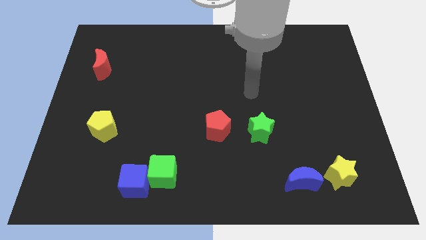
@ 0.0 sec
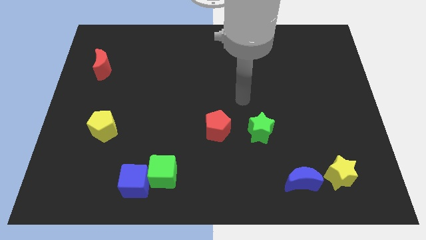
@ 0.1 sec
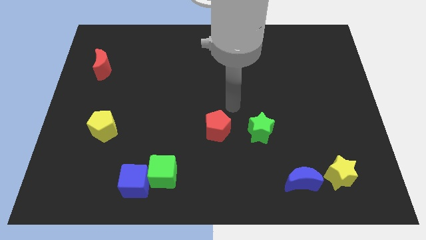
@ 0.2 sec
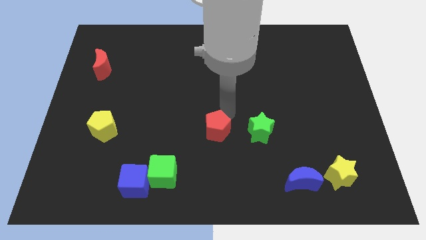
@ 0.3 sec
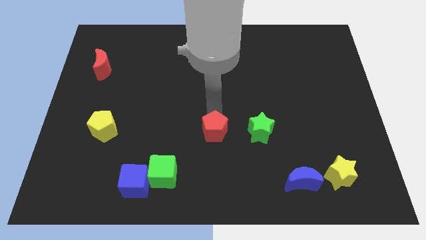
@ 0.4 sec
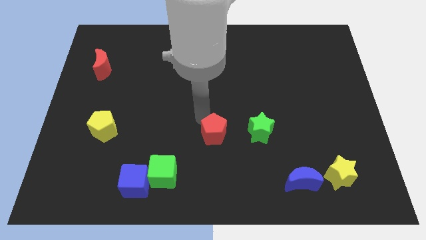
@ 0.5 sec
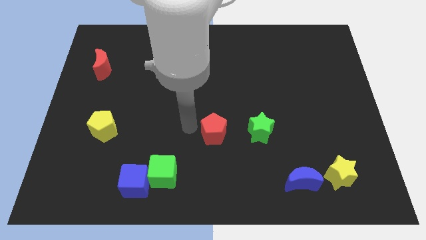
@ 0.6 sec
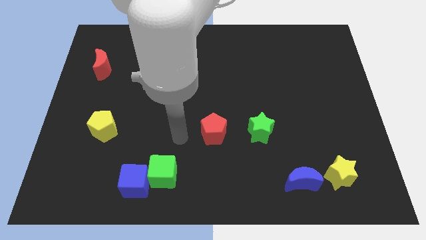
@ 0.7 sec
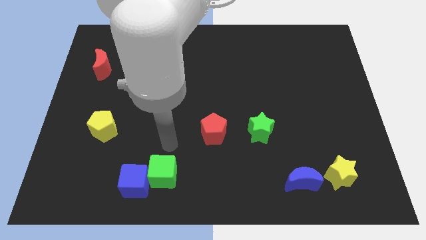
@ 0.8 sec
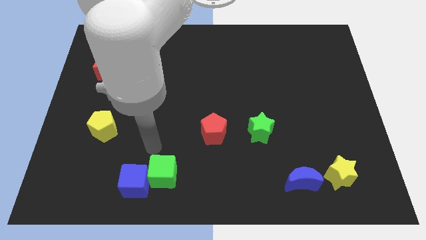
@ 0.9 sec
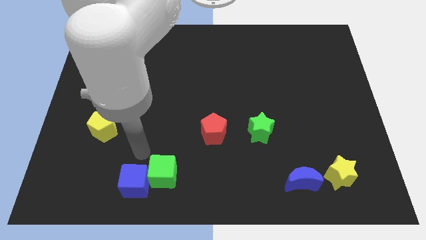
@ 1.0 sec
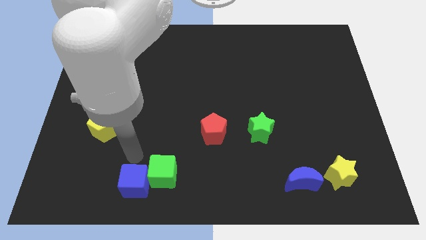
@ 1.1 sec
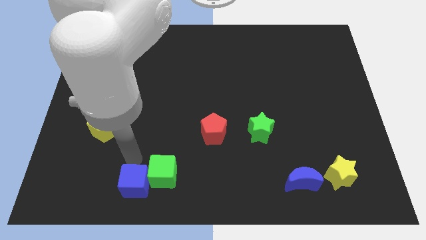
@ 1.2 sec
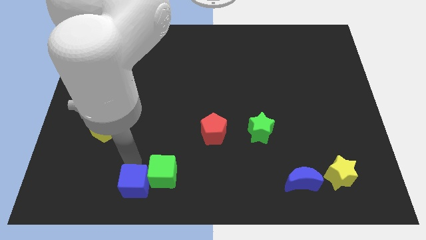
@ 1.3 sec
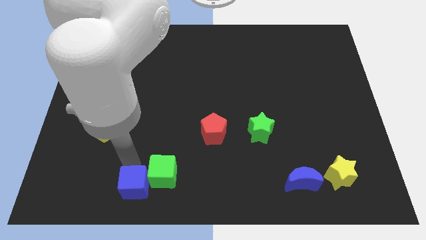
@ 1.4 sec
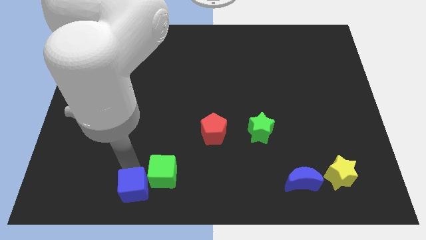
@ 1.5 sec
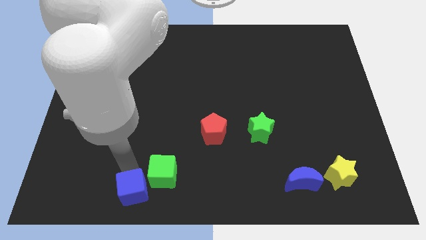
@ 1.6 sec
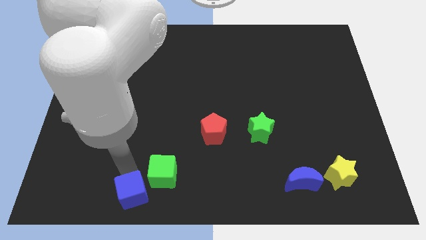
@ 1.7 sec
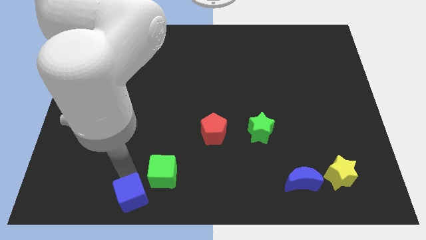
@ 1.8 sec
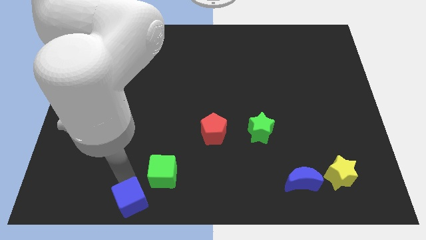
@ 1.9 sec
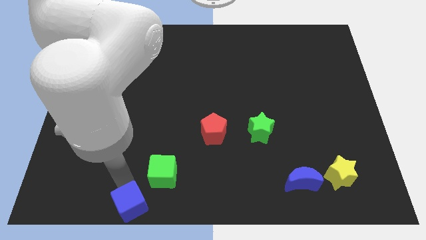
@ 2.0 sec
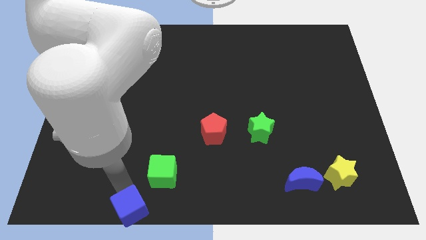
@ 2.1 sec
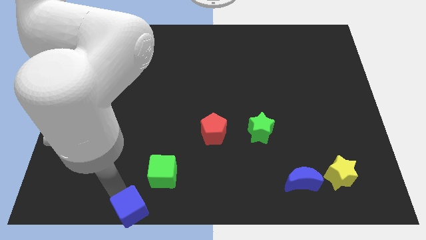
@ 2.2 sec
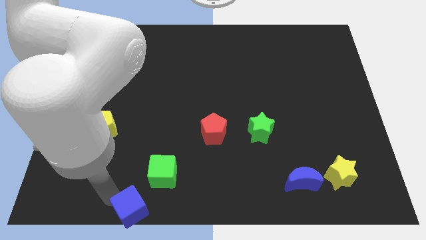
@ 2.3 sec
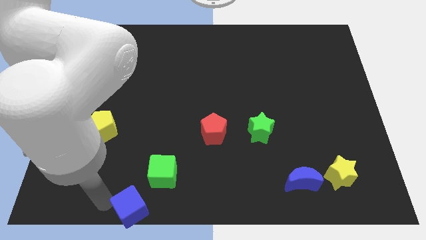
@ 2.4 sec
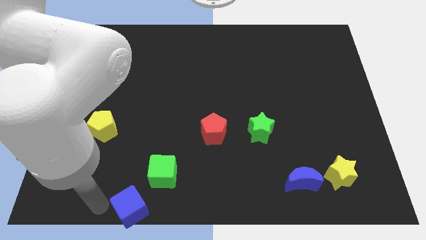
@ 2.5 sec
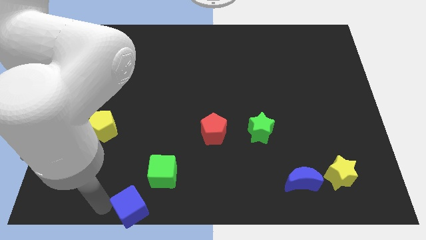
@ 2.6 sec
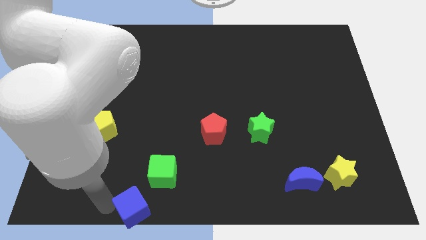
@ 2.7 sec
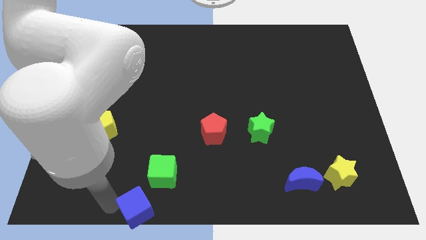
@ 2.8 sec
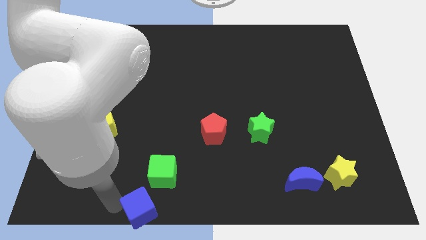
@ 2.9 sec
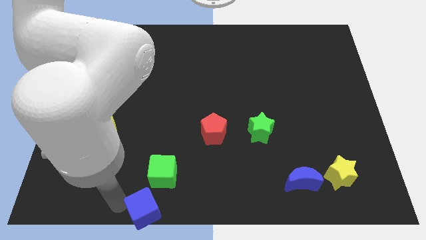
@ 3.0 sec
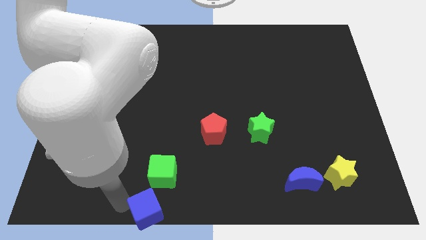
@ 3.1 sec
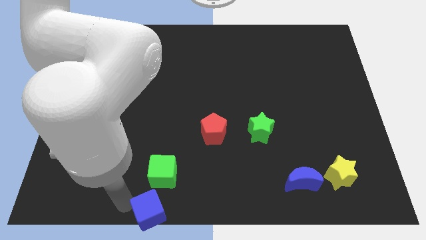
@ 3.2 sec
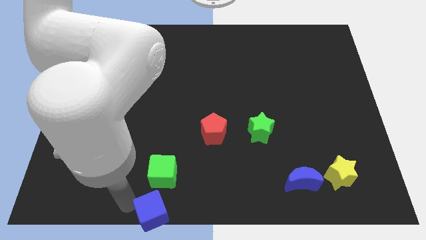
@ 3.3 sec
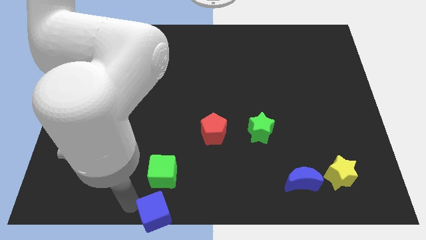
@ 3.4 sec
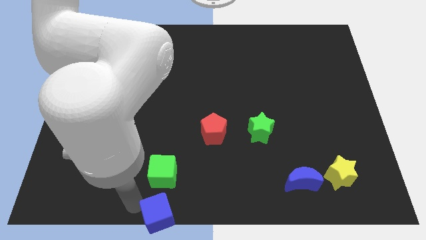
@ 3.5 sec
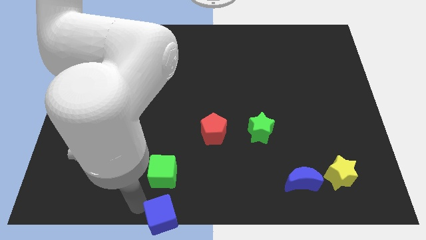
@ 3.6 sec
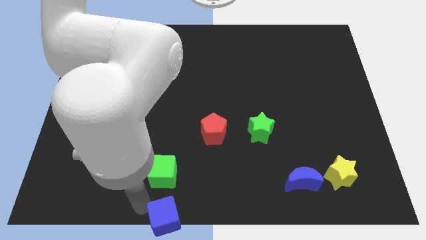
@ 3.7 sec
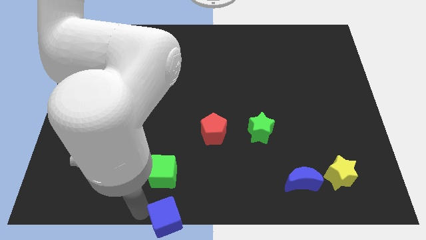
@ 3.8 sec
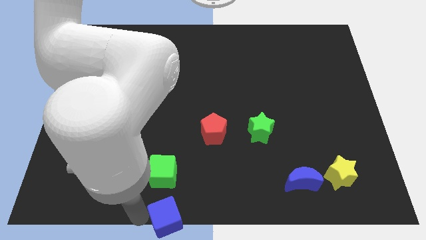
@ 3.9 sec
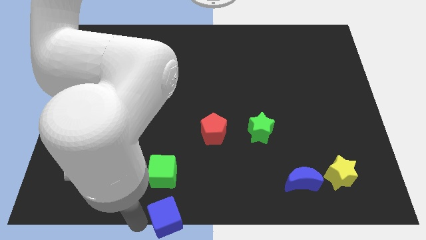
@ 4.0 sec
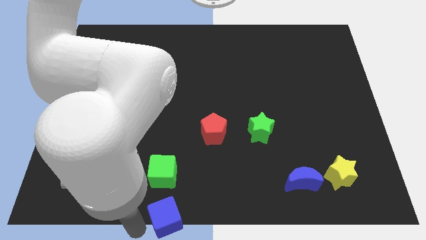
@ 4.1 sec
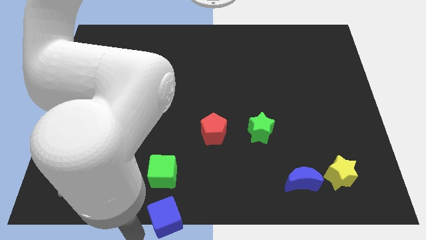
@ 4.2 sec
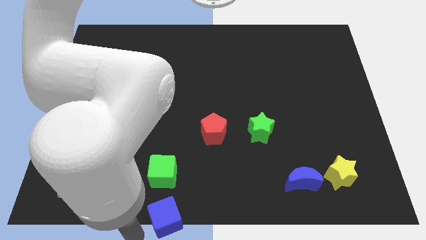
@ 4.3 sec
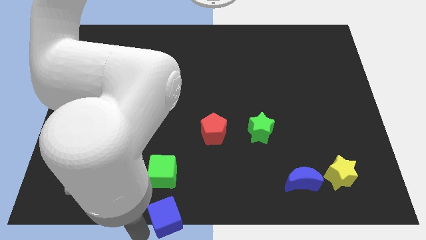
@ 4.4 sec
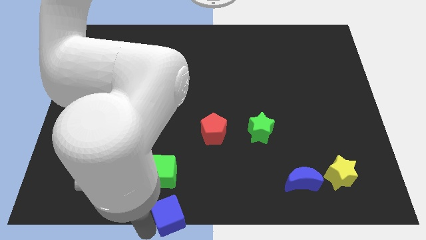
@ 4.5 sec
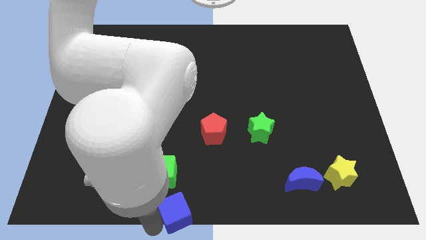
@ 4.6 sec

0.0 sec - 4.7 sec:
move the blue cube right a bit

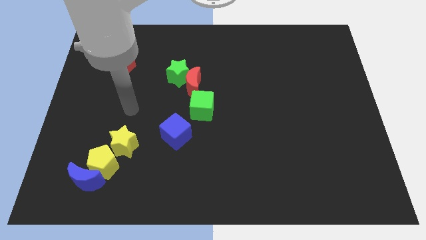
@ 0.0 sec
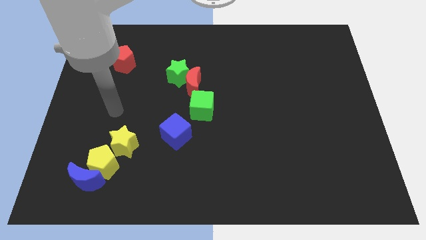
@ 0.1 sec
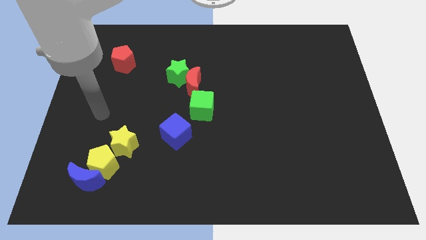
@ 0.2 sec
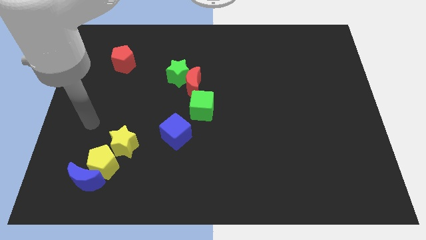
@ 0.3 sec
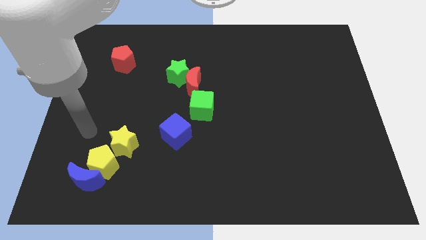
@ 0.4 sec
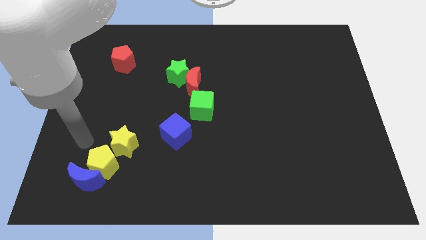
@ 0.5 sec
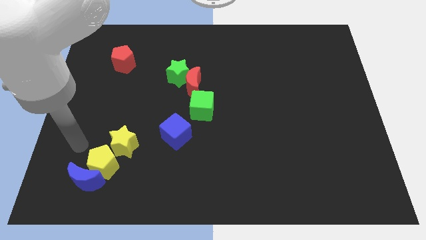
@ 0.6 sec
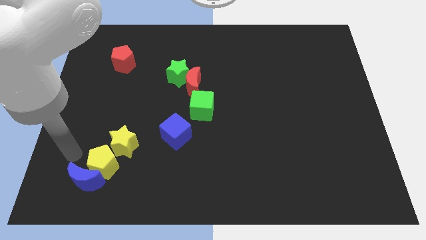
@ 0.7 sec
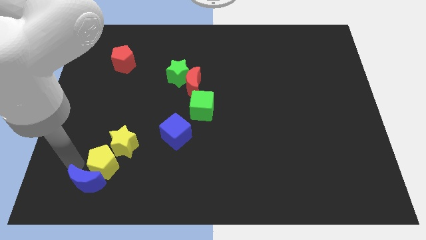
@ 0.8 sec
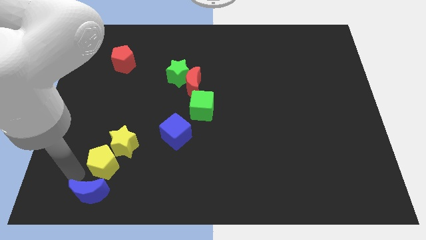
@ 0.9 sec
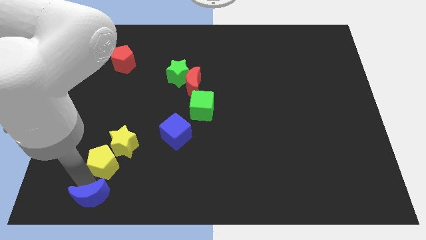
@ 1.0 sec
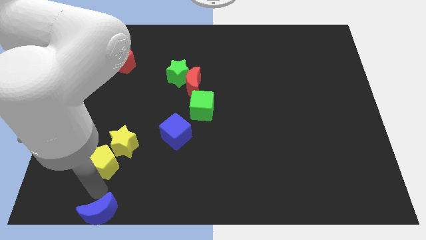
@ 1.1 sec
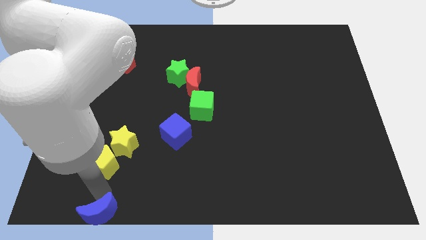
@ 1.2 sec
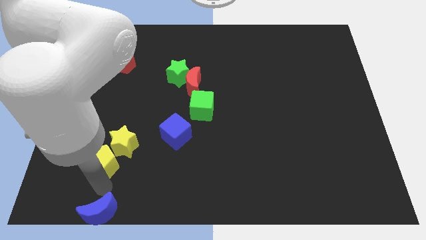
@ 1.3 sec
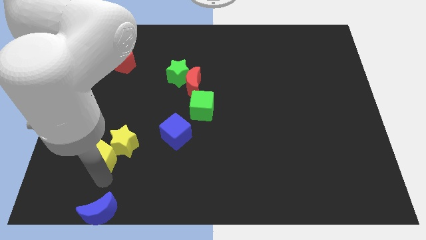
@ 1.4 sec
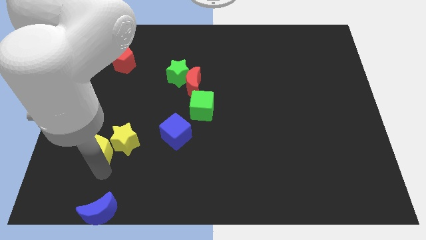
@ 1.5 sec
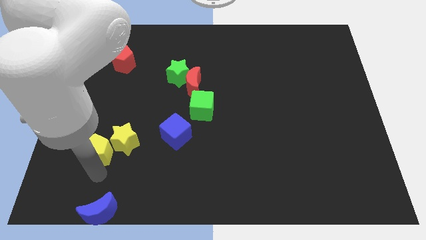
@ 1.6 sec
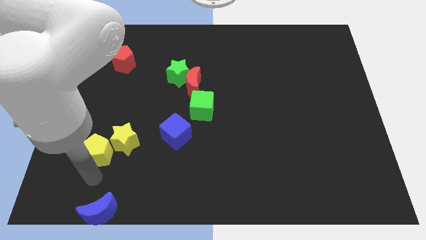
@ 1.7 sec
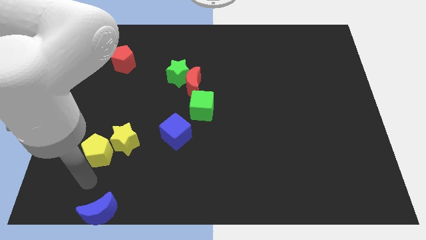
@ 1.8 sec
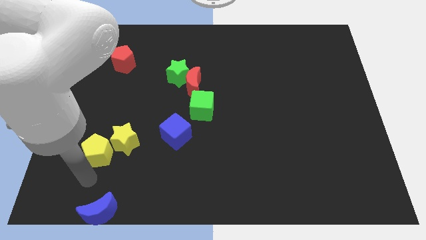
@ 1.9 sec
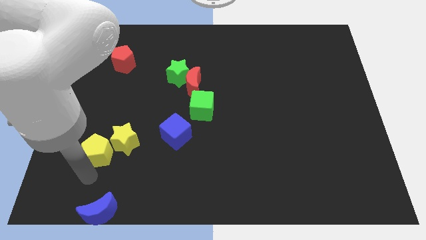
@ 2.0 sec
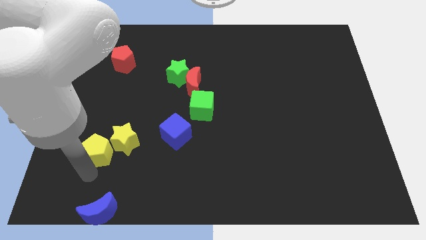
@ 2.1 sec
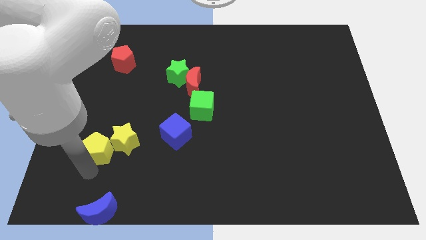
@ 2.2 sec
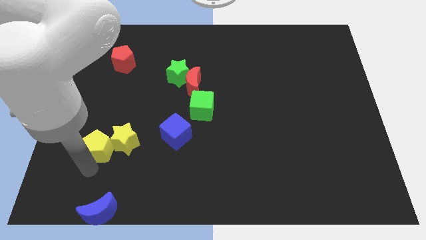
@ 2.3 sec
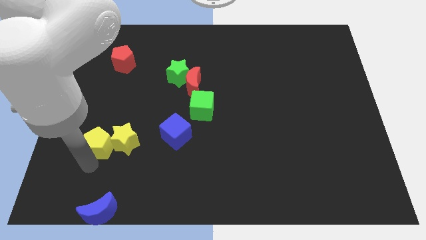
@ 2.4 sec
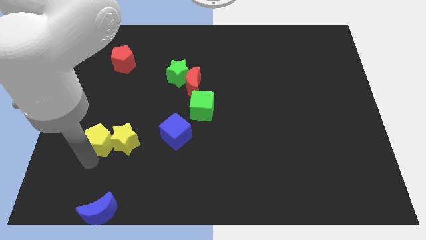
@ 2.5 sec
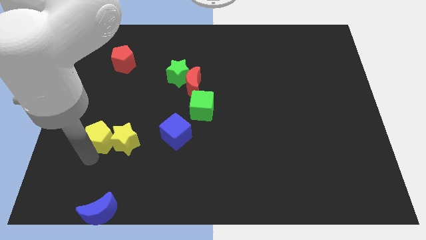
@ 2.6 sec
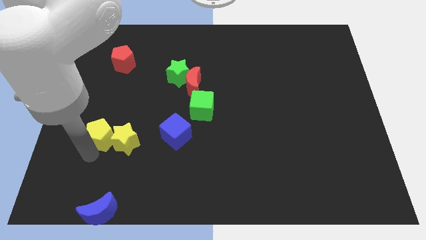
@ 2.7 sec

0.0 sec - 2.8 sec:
slightly move the yellow pentagon upwards

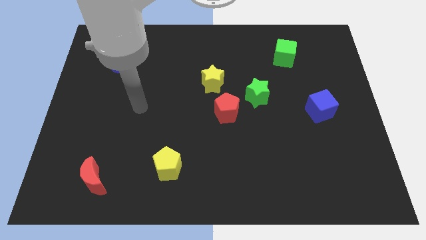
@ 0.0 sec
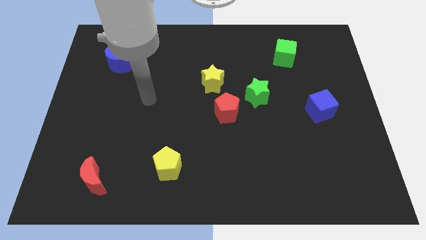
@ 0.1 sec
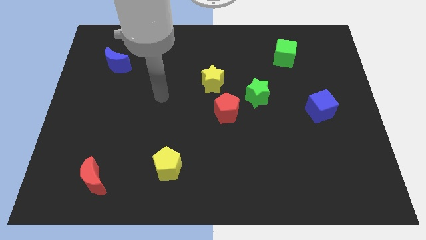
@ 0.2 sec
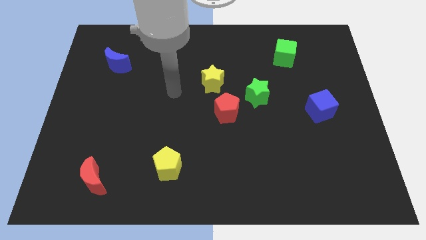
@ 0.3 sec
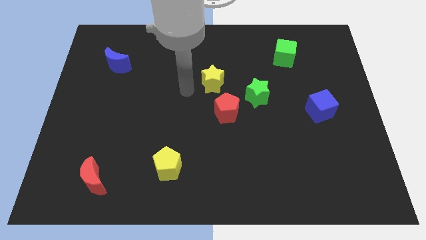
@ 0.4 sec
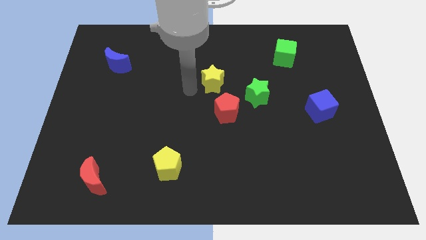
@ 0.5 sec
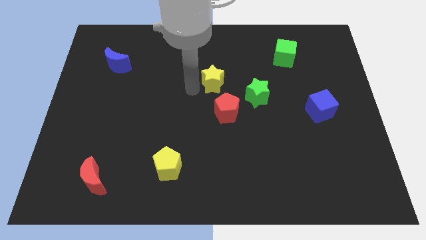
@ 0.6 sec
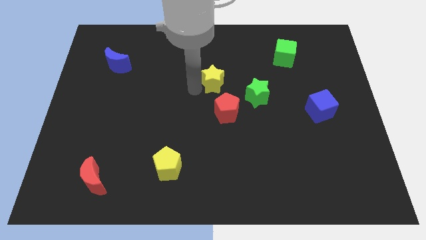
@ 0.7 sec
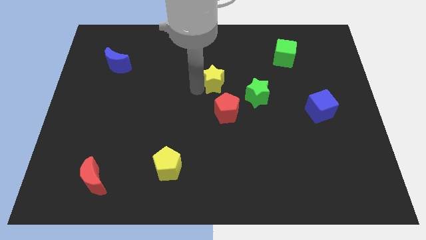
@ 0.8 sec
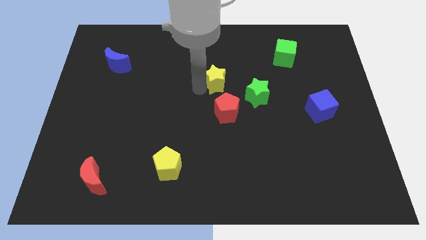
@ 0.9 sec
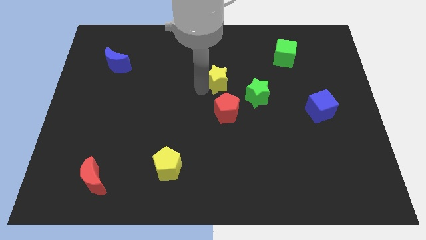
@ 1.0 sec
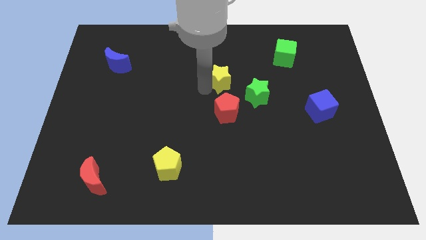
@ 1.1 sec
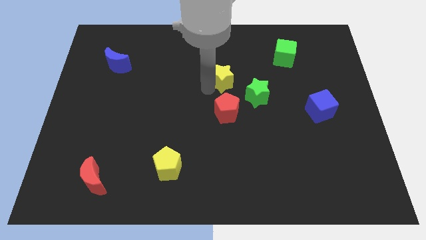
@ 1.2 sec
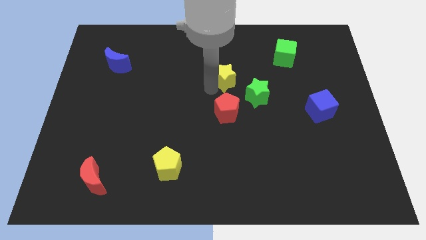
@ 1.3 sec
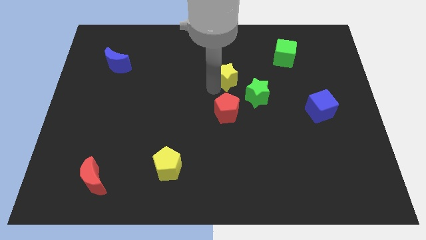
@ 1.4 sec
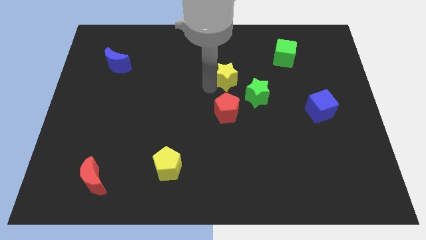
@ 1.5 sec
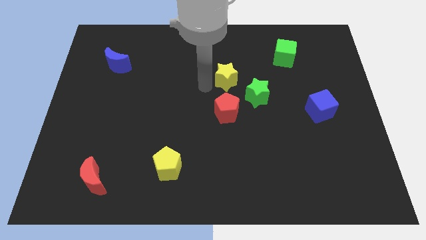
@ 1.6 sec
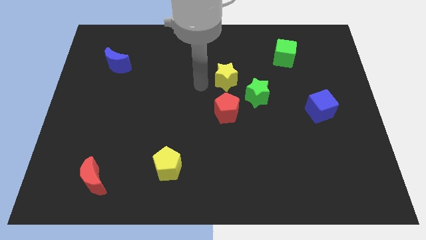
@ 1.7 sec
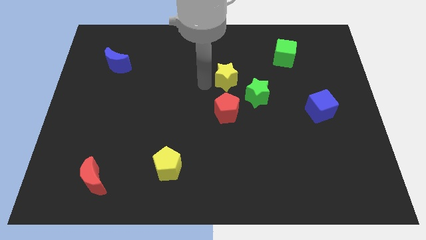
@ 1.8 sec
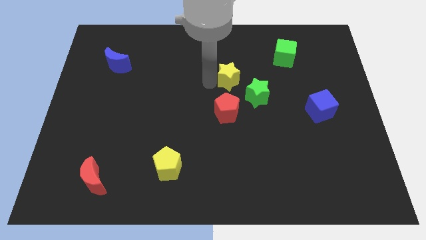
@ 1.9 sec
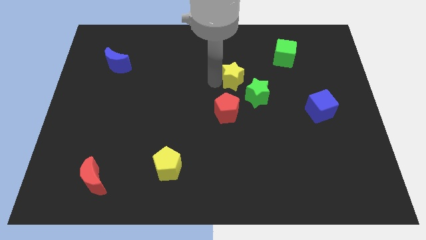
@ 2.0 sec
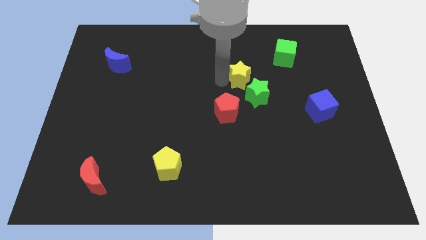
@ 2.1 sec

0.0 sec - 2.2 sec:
push the yellow star a bit to the right
